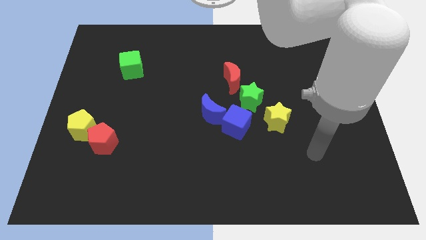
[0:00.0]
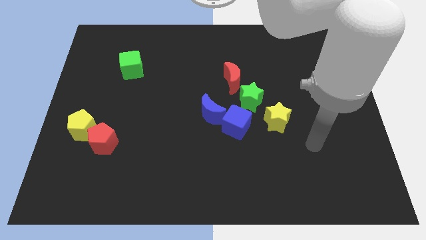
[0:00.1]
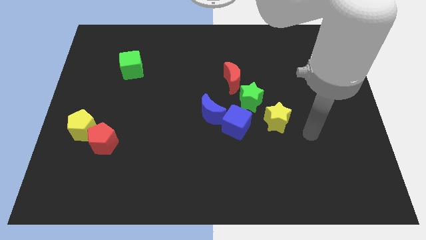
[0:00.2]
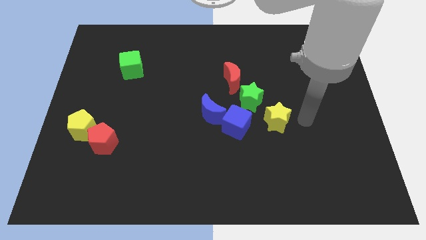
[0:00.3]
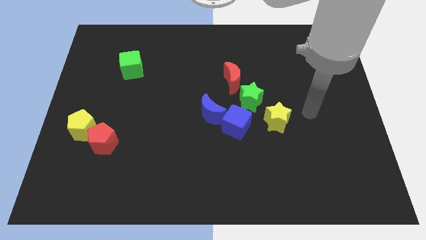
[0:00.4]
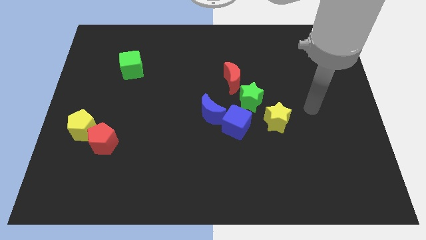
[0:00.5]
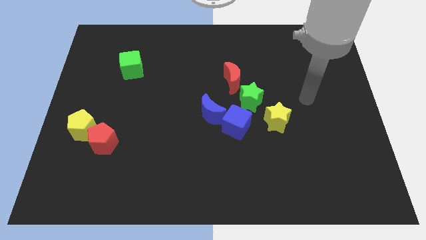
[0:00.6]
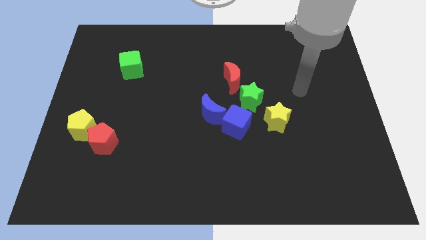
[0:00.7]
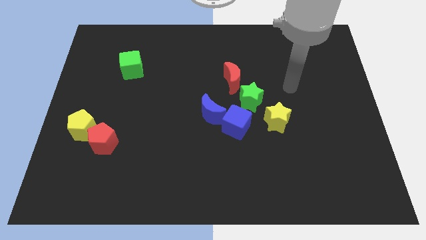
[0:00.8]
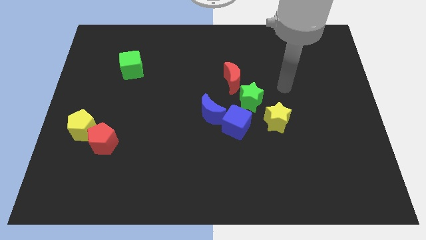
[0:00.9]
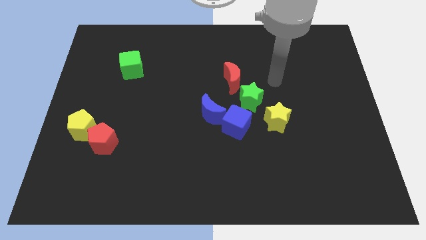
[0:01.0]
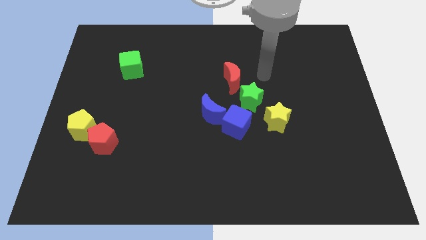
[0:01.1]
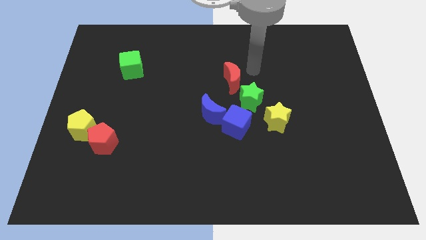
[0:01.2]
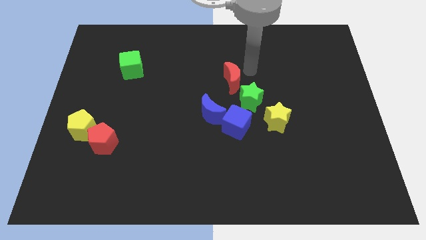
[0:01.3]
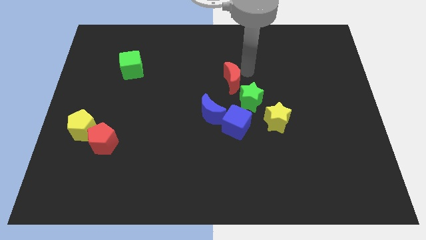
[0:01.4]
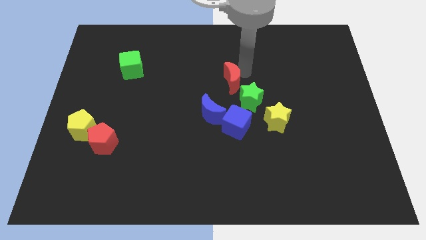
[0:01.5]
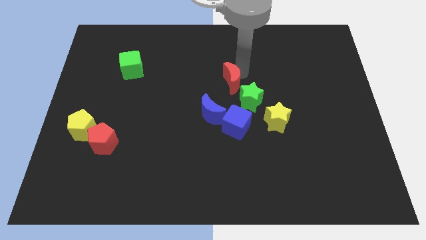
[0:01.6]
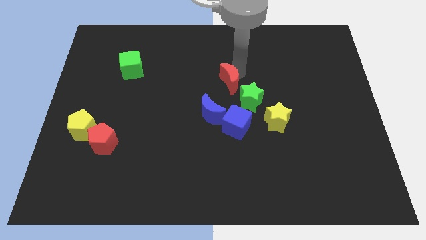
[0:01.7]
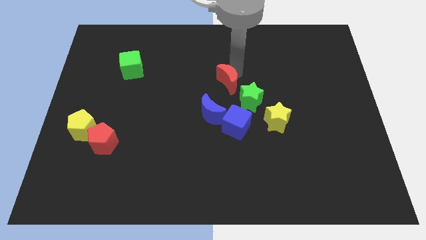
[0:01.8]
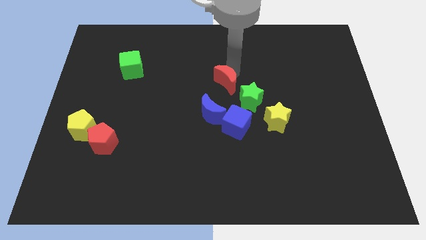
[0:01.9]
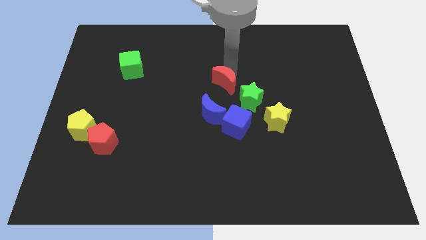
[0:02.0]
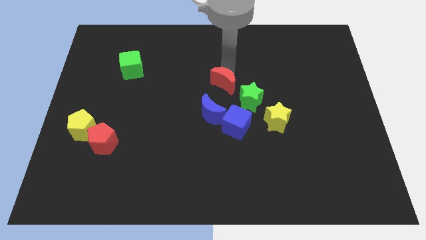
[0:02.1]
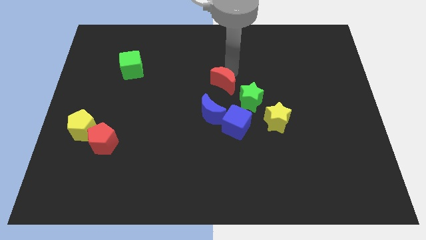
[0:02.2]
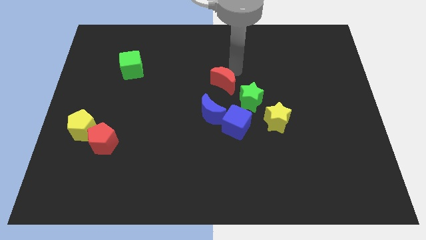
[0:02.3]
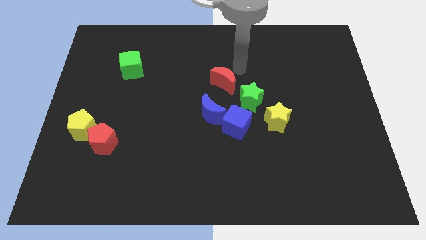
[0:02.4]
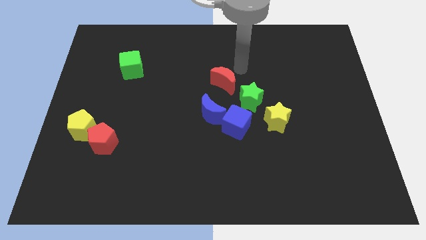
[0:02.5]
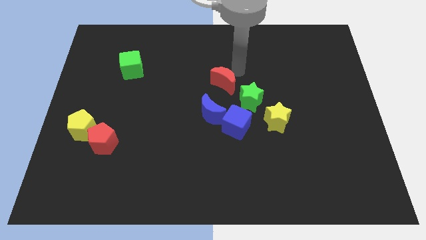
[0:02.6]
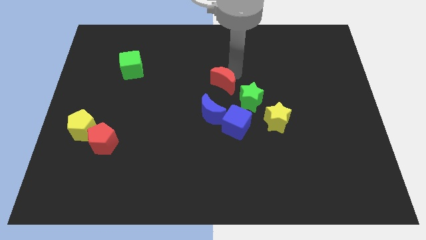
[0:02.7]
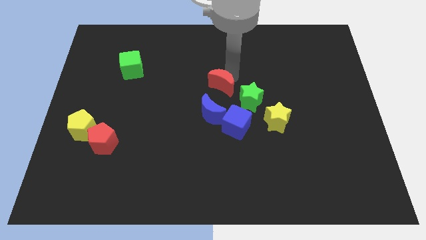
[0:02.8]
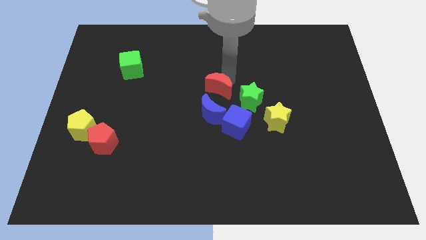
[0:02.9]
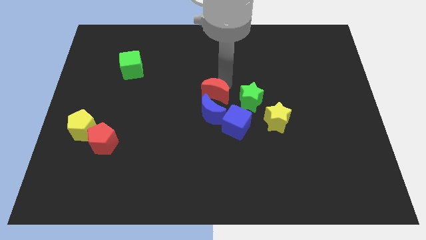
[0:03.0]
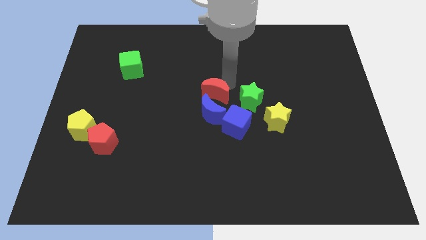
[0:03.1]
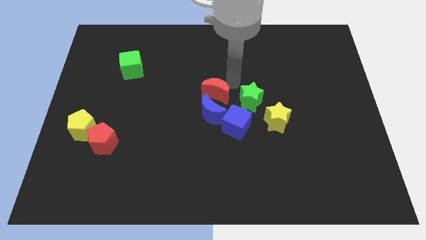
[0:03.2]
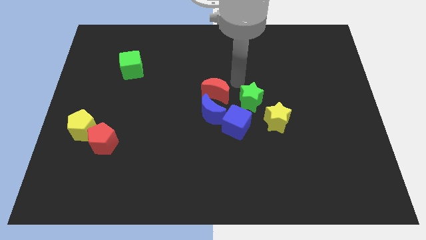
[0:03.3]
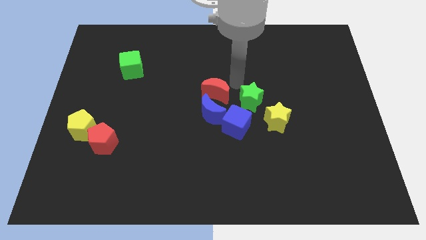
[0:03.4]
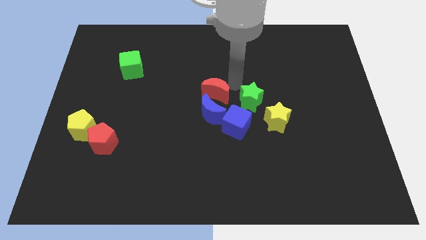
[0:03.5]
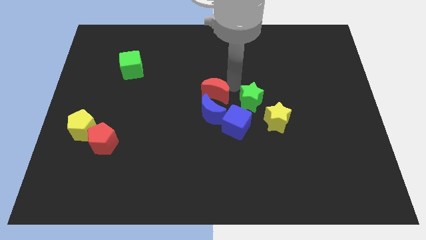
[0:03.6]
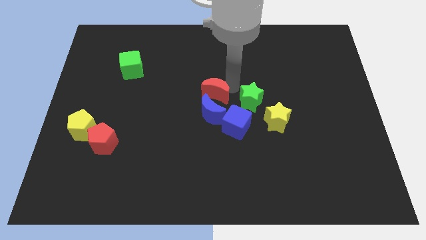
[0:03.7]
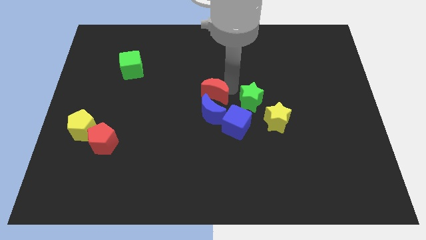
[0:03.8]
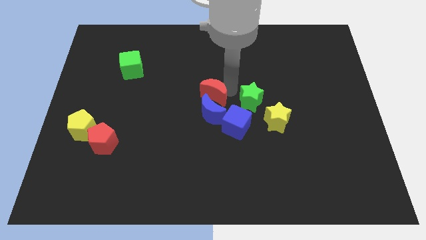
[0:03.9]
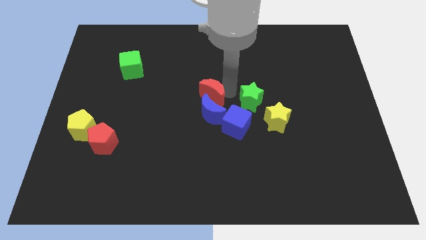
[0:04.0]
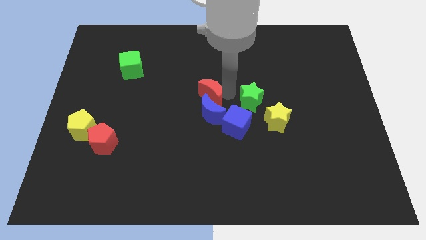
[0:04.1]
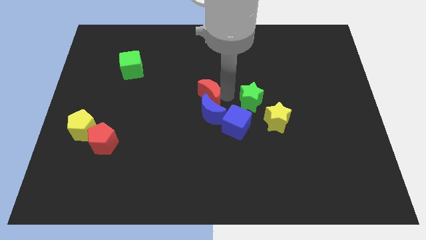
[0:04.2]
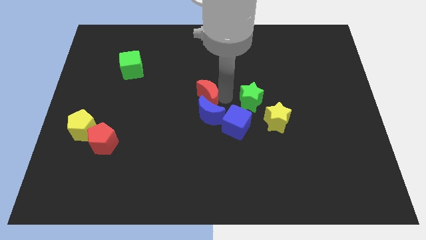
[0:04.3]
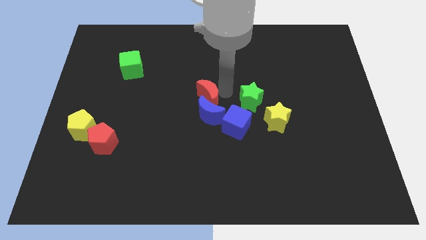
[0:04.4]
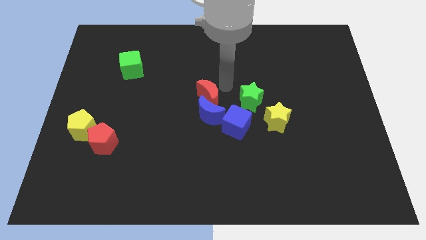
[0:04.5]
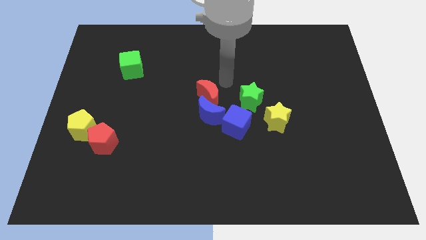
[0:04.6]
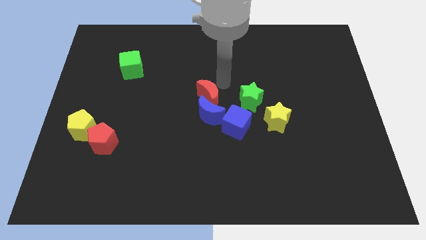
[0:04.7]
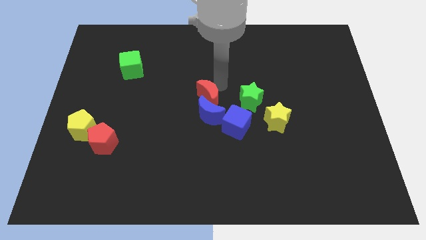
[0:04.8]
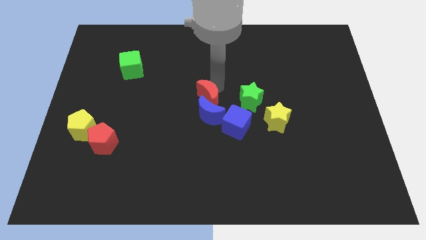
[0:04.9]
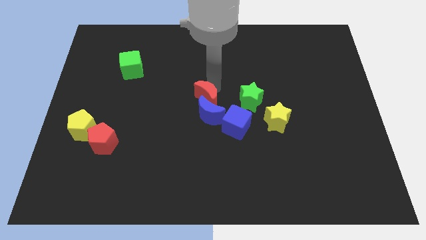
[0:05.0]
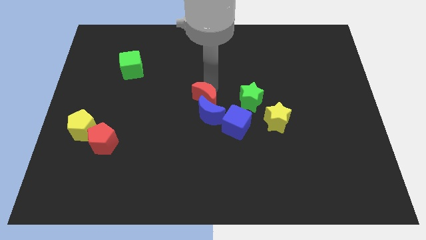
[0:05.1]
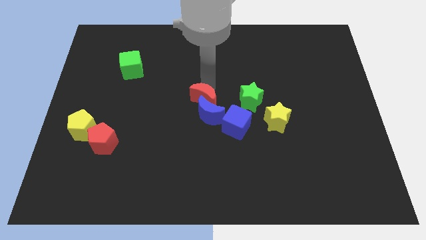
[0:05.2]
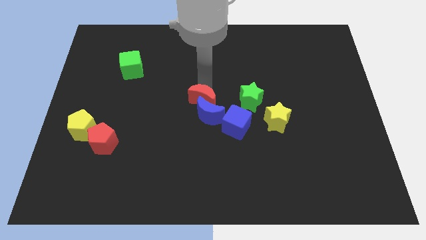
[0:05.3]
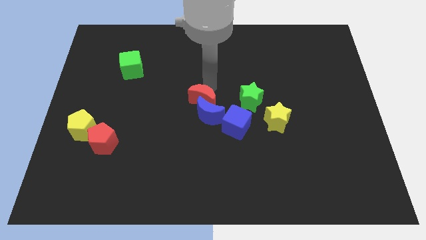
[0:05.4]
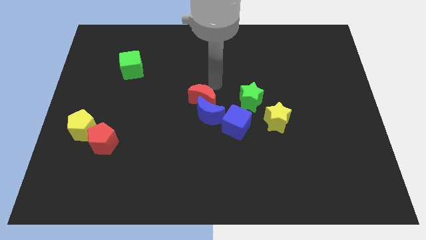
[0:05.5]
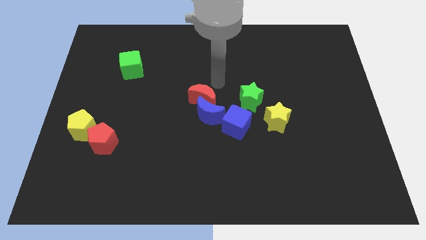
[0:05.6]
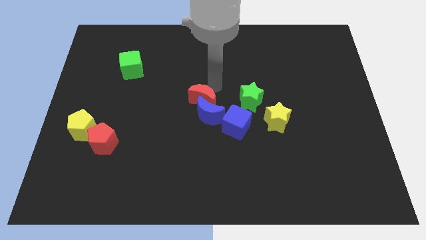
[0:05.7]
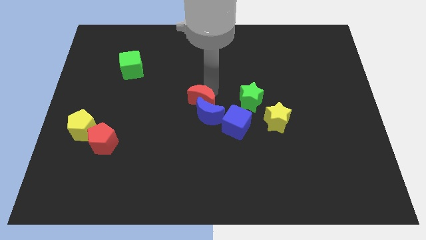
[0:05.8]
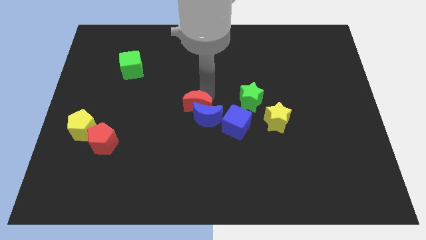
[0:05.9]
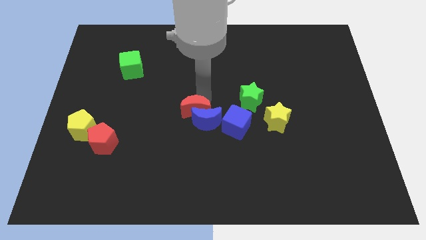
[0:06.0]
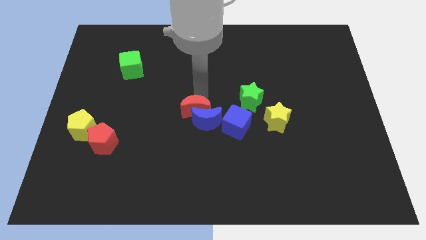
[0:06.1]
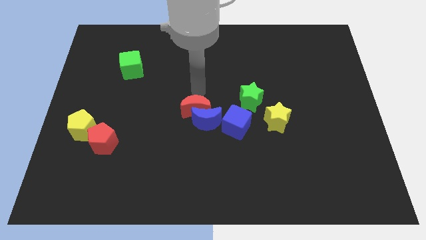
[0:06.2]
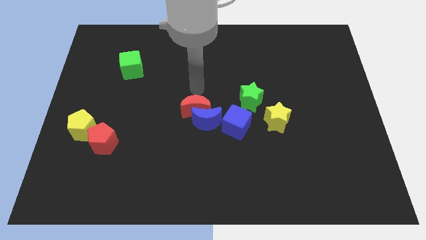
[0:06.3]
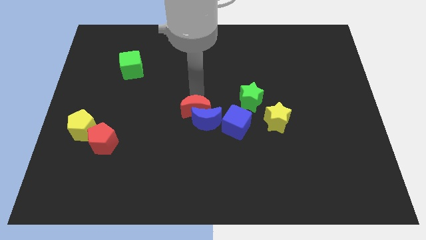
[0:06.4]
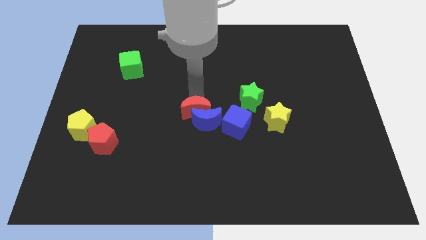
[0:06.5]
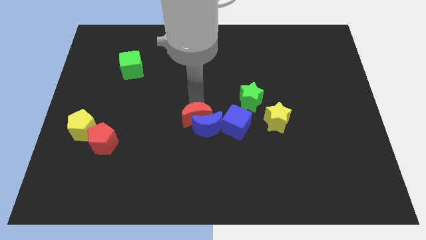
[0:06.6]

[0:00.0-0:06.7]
slightly push the red moon downwards

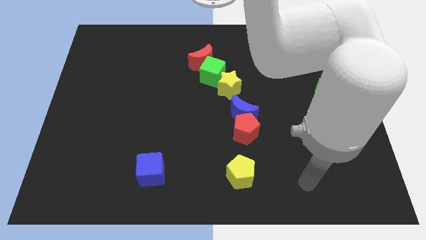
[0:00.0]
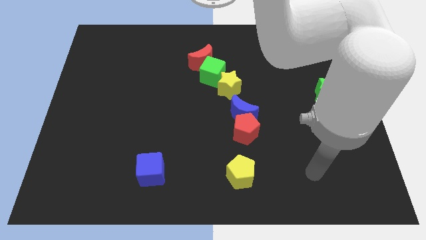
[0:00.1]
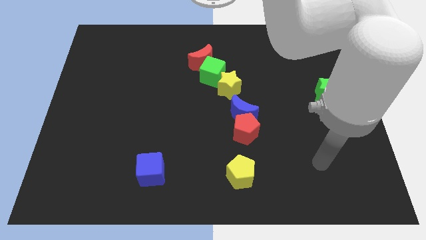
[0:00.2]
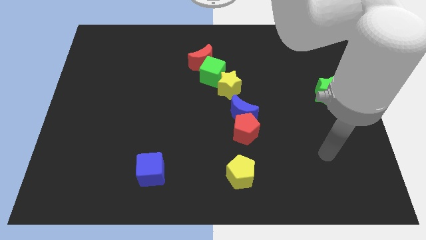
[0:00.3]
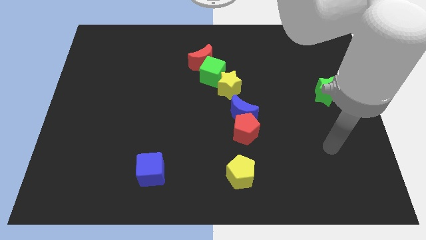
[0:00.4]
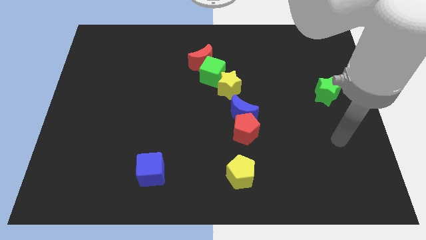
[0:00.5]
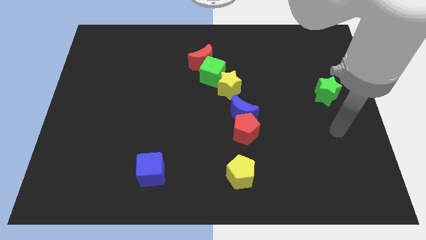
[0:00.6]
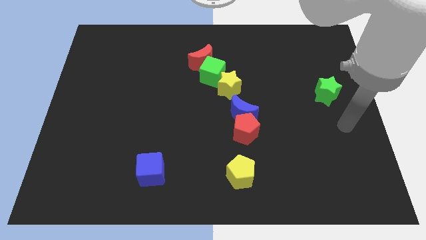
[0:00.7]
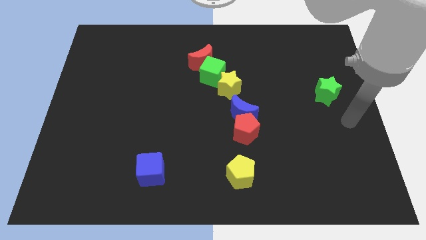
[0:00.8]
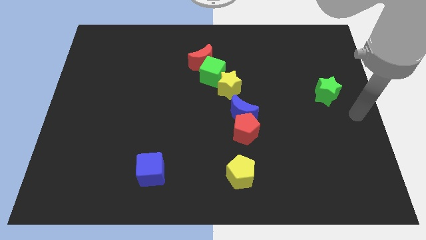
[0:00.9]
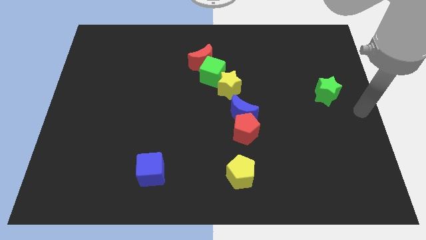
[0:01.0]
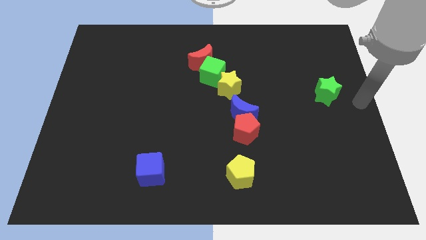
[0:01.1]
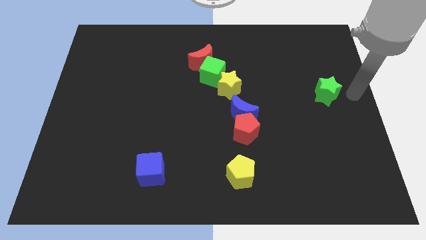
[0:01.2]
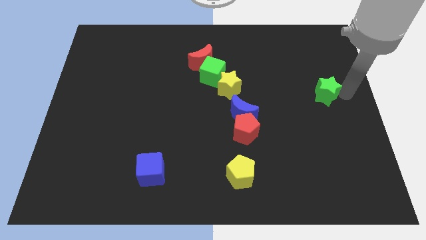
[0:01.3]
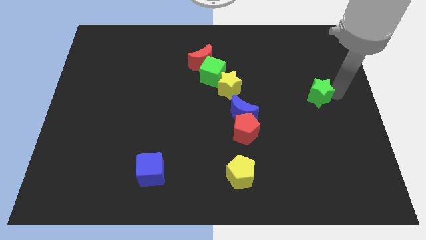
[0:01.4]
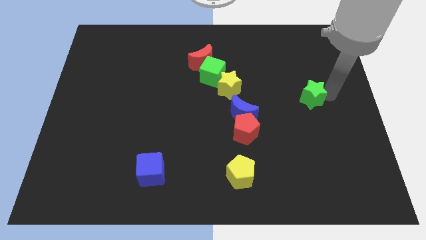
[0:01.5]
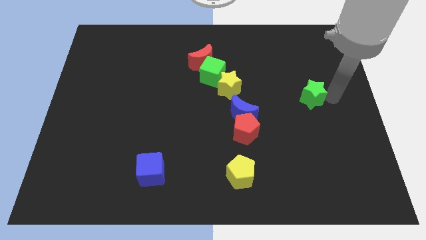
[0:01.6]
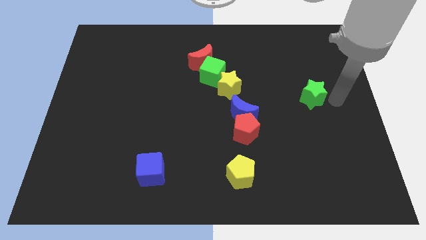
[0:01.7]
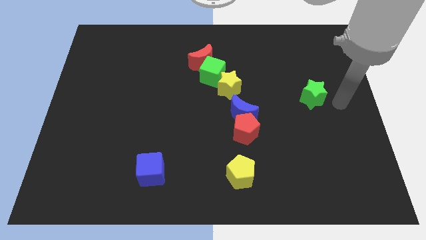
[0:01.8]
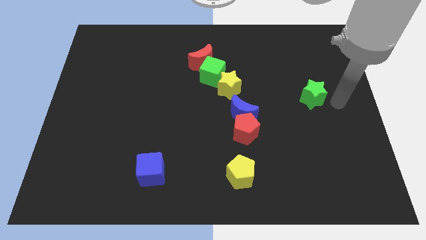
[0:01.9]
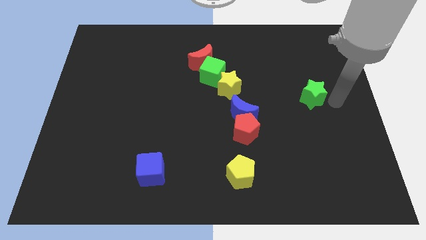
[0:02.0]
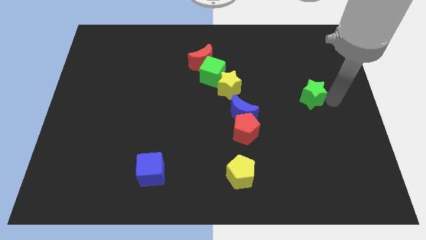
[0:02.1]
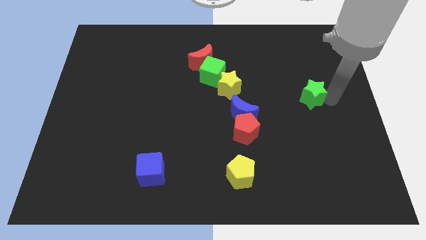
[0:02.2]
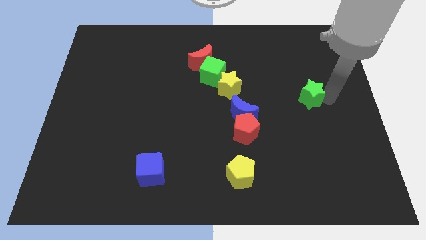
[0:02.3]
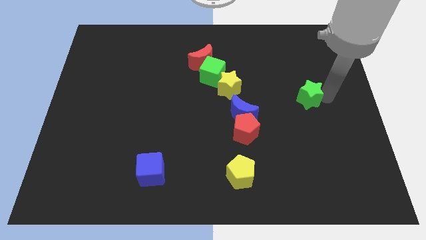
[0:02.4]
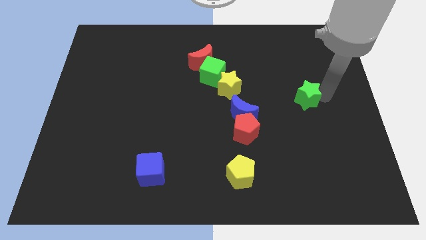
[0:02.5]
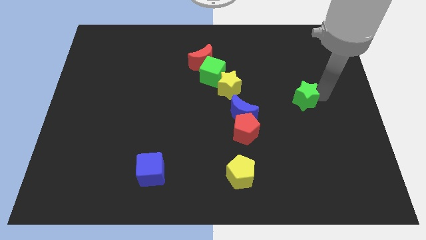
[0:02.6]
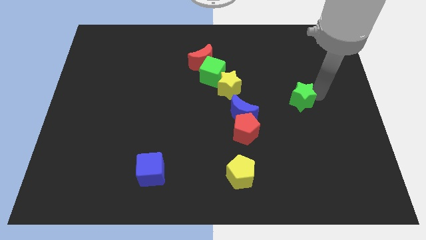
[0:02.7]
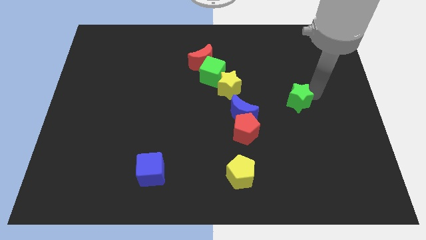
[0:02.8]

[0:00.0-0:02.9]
move the green star to the left a bit
